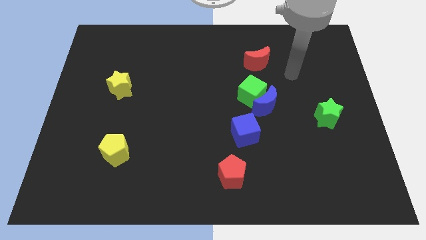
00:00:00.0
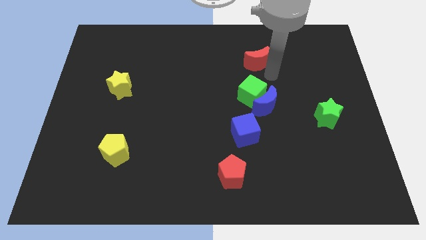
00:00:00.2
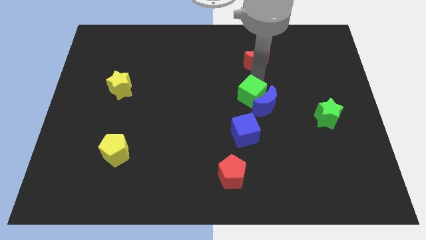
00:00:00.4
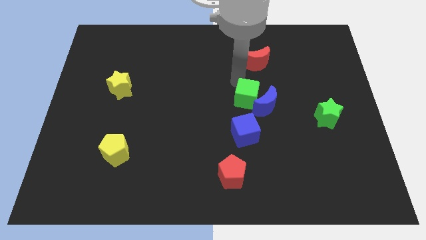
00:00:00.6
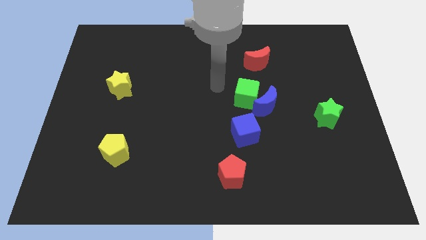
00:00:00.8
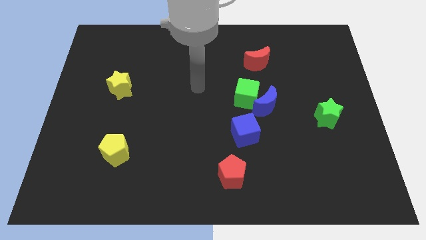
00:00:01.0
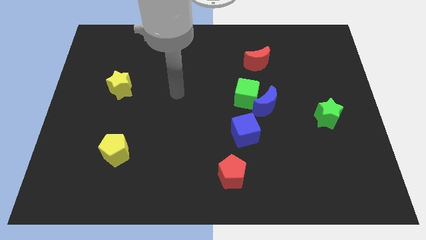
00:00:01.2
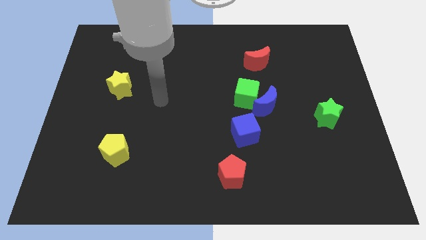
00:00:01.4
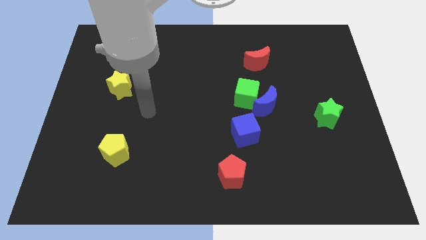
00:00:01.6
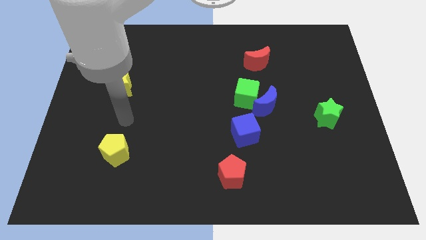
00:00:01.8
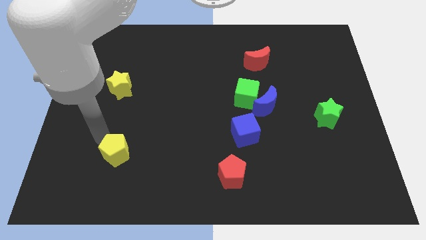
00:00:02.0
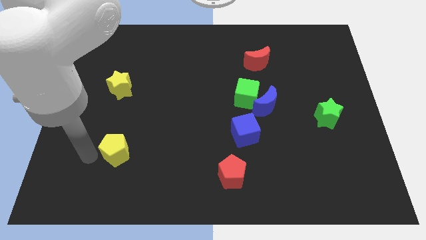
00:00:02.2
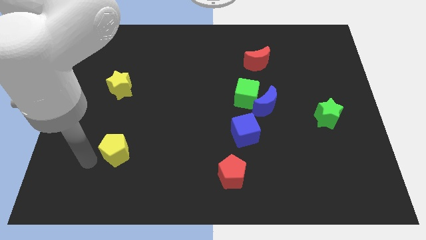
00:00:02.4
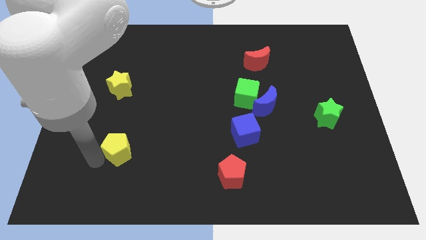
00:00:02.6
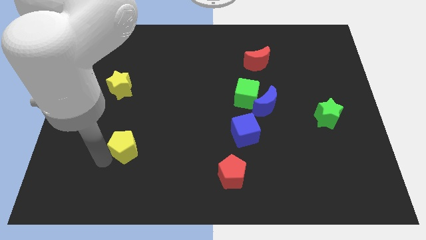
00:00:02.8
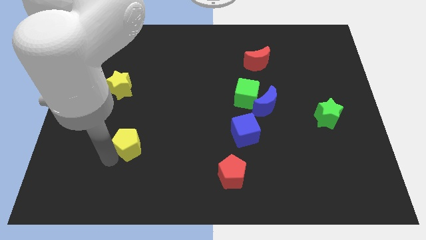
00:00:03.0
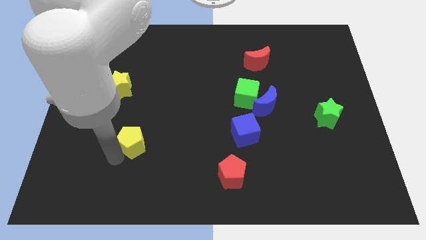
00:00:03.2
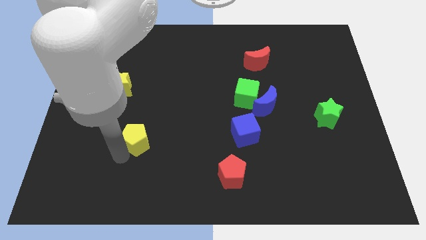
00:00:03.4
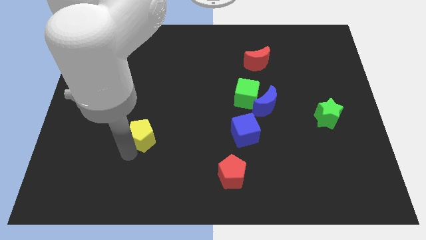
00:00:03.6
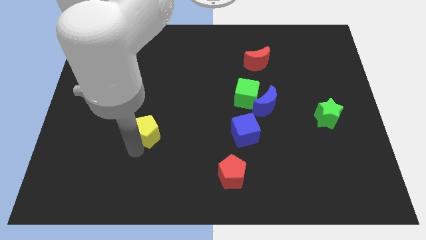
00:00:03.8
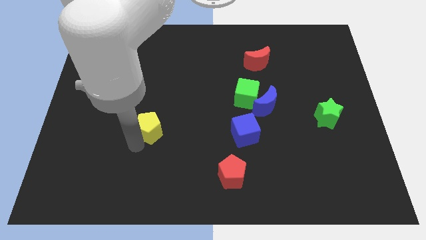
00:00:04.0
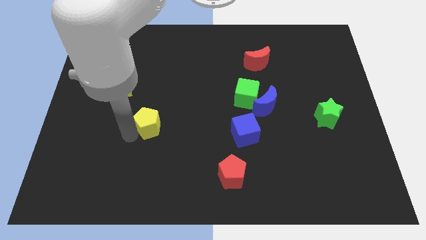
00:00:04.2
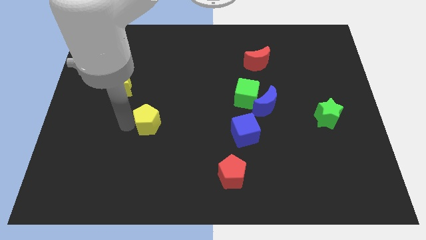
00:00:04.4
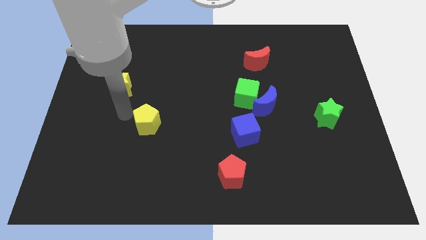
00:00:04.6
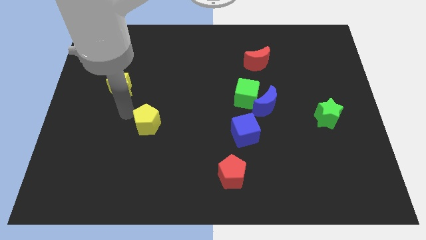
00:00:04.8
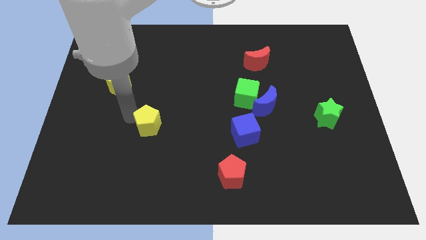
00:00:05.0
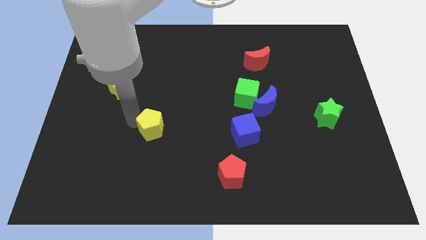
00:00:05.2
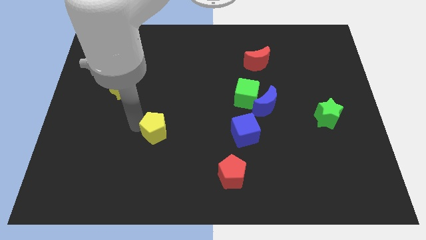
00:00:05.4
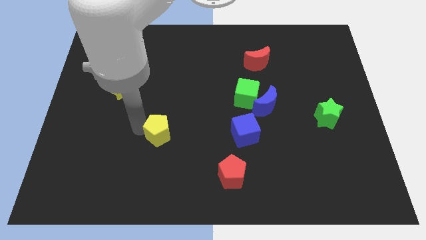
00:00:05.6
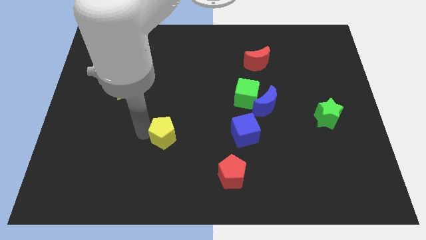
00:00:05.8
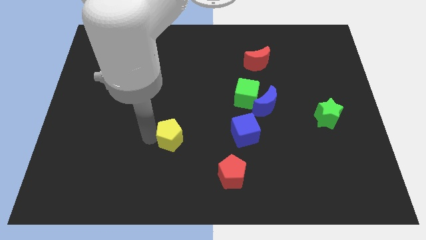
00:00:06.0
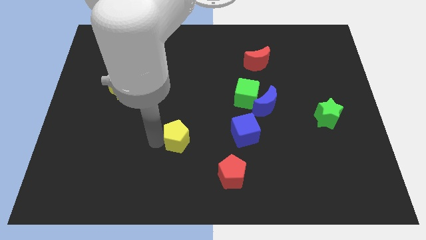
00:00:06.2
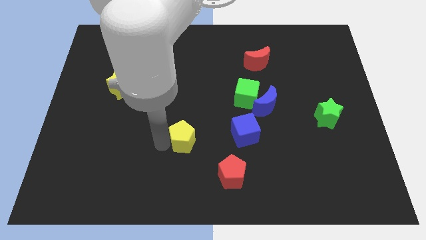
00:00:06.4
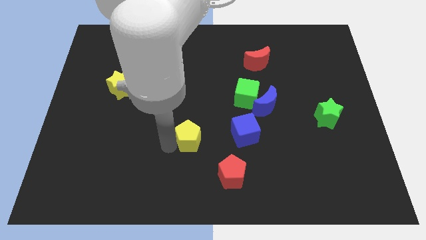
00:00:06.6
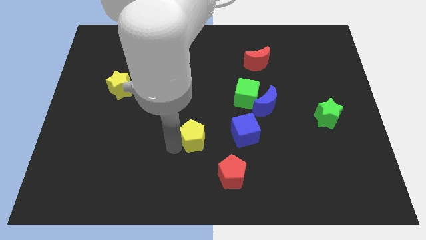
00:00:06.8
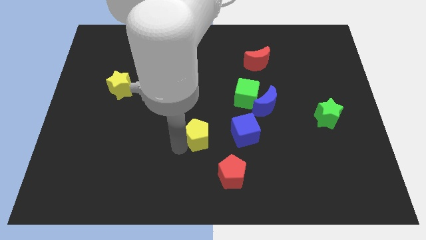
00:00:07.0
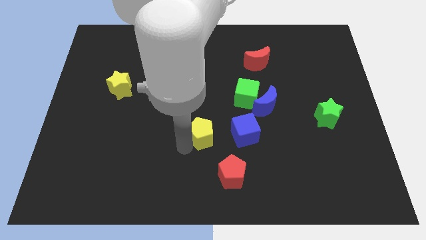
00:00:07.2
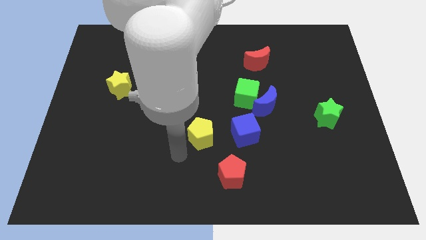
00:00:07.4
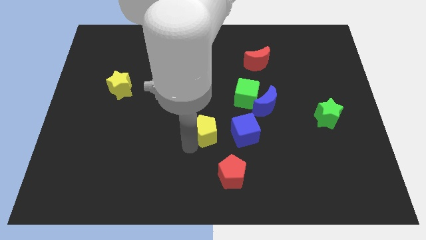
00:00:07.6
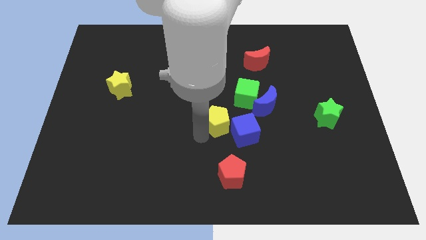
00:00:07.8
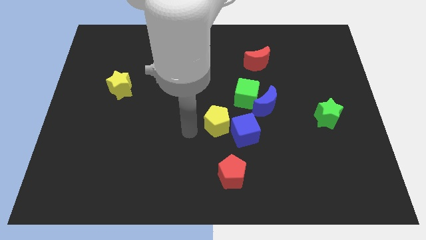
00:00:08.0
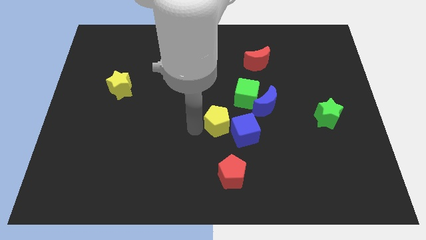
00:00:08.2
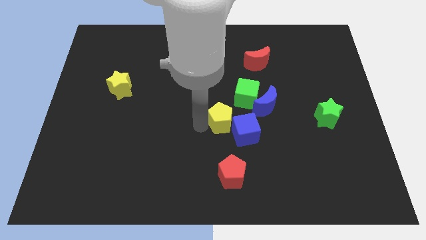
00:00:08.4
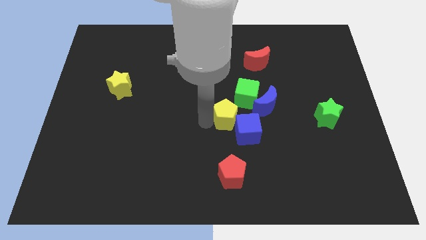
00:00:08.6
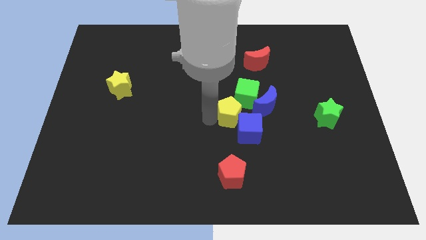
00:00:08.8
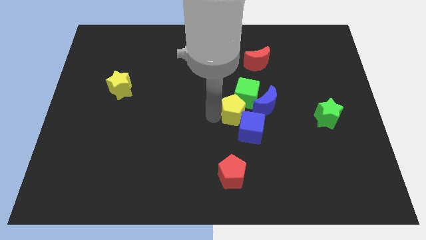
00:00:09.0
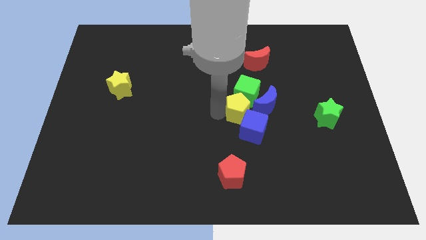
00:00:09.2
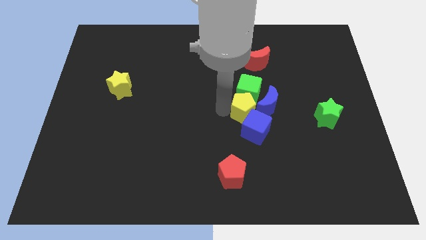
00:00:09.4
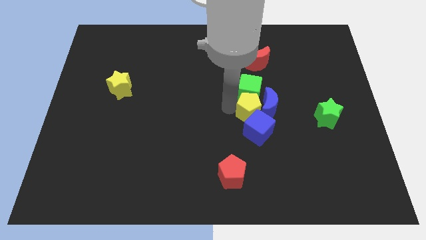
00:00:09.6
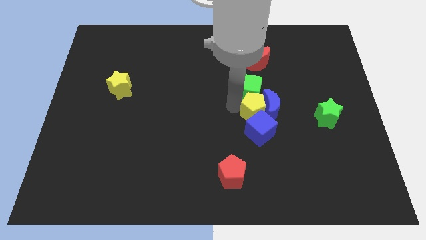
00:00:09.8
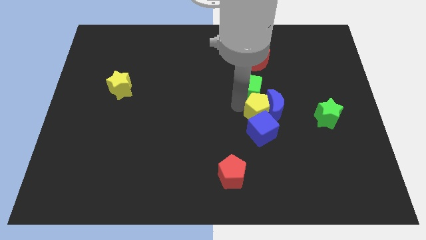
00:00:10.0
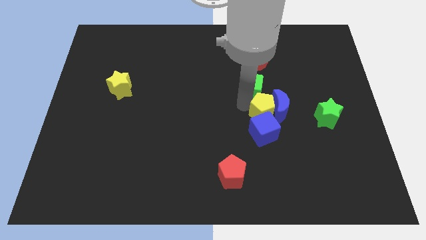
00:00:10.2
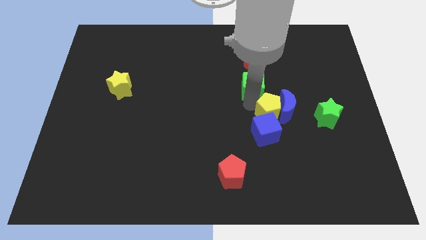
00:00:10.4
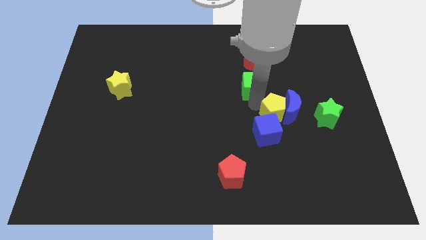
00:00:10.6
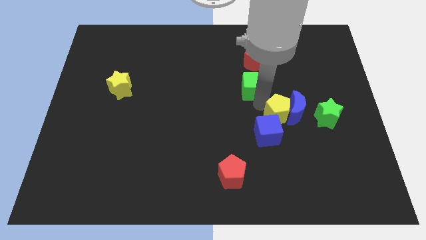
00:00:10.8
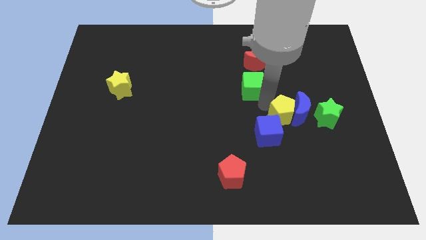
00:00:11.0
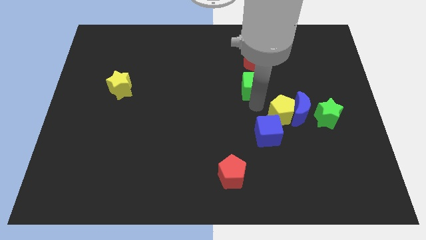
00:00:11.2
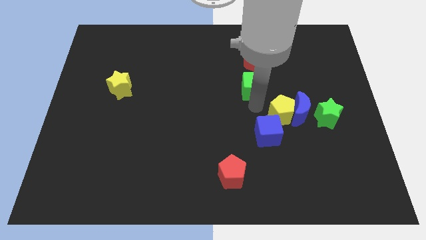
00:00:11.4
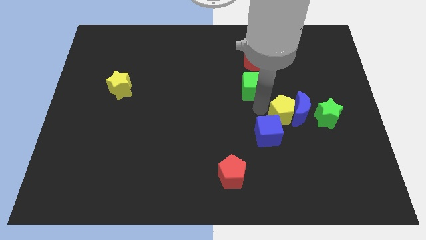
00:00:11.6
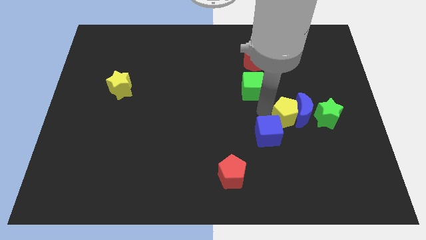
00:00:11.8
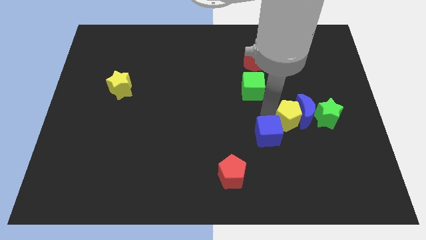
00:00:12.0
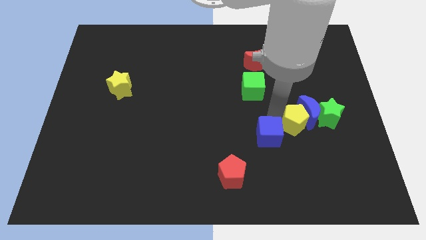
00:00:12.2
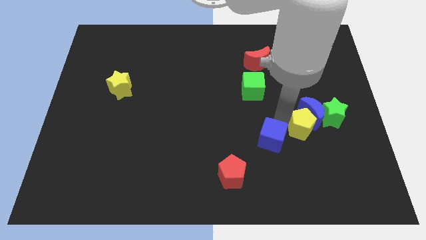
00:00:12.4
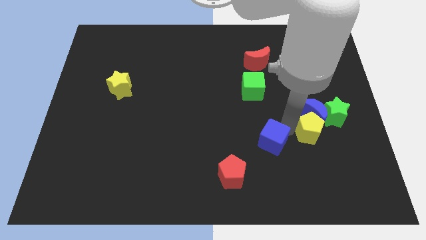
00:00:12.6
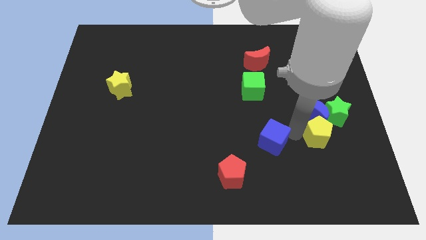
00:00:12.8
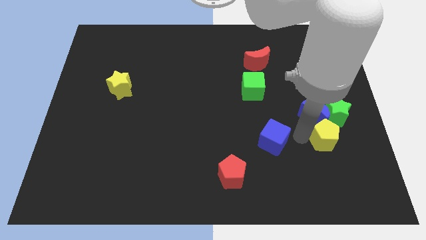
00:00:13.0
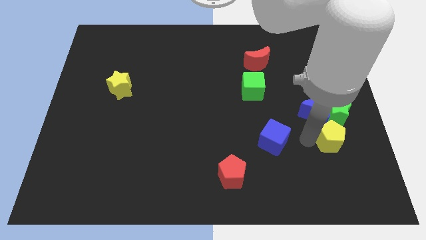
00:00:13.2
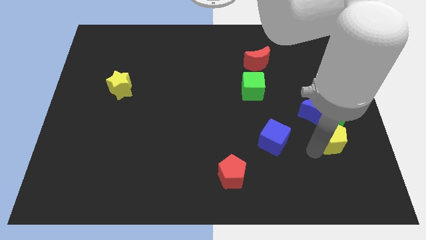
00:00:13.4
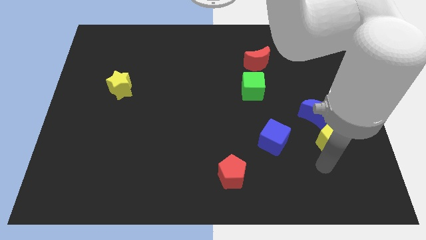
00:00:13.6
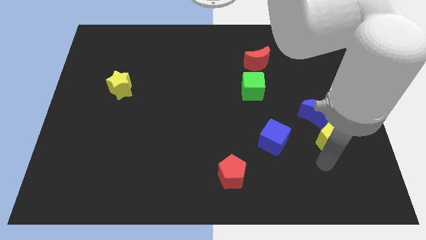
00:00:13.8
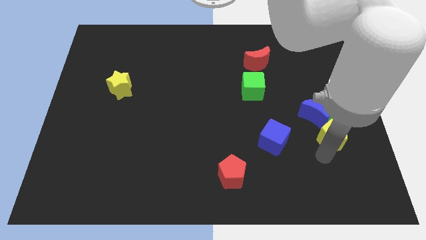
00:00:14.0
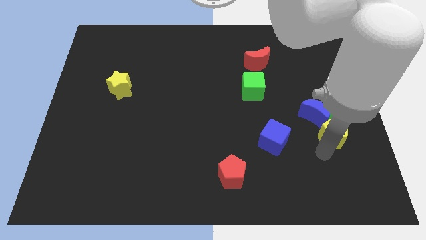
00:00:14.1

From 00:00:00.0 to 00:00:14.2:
slide the yellow pentagon to the green star
